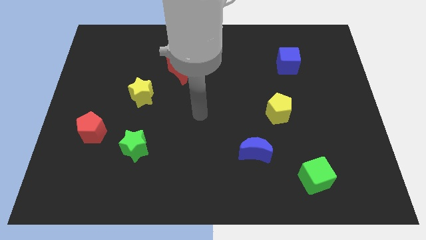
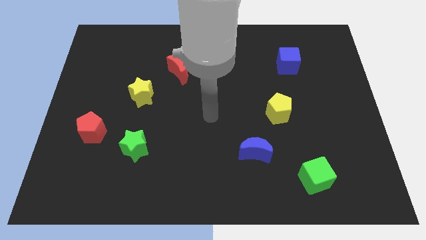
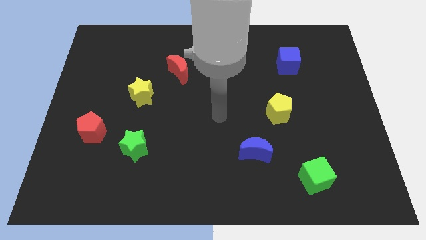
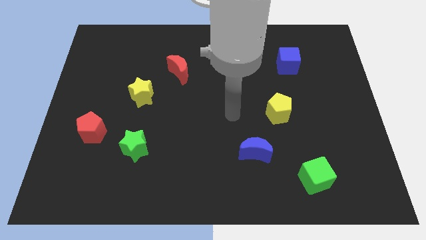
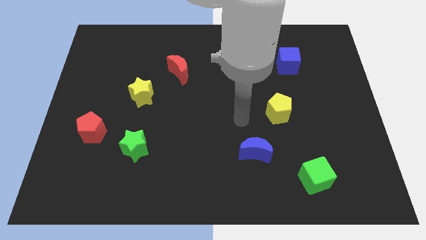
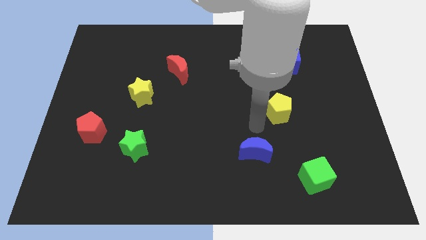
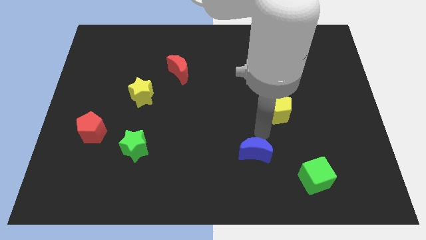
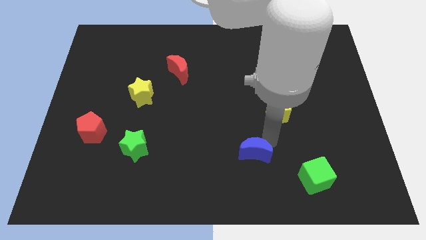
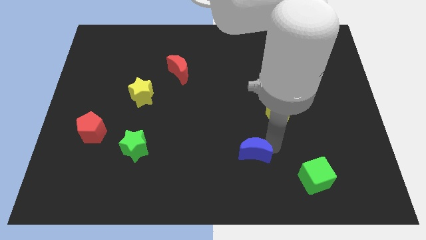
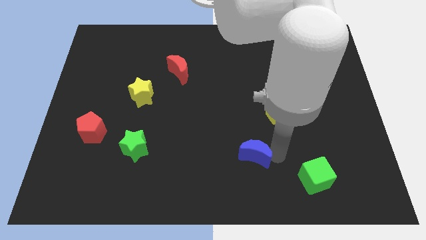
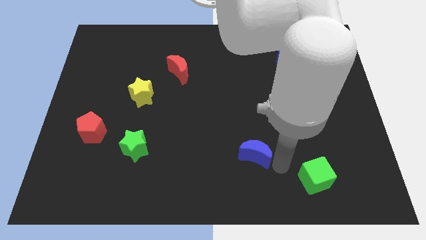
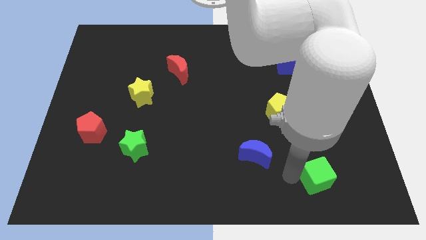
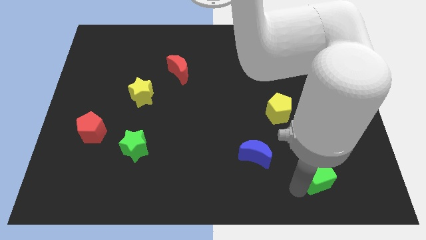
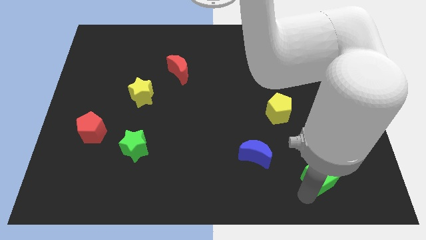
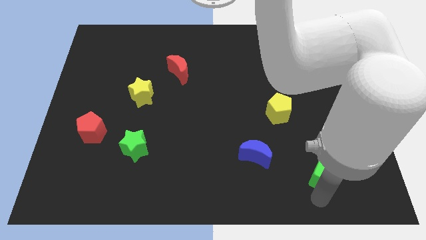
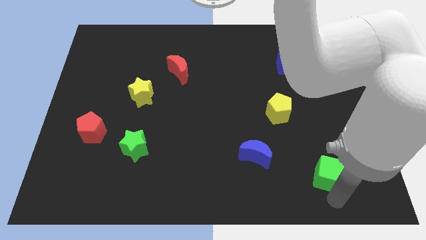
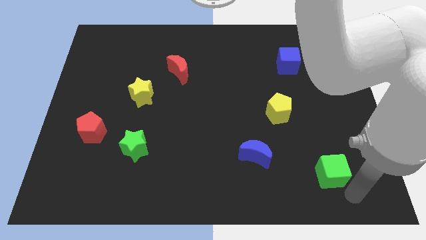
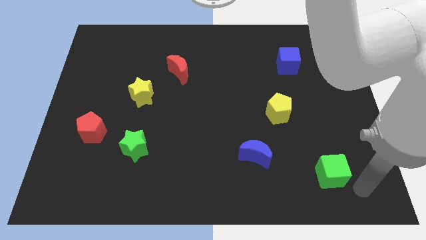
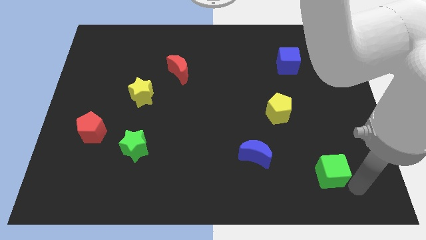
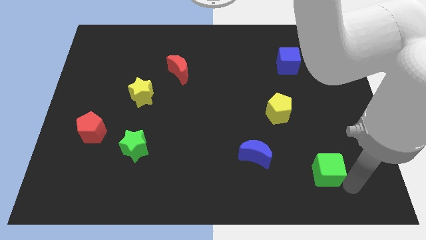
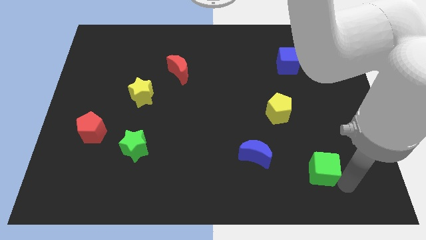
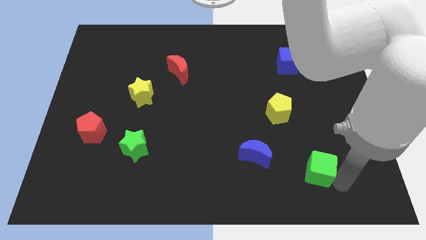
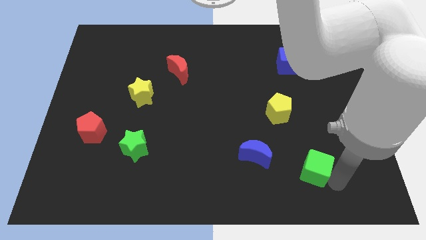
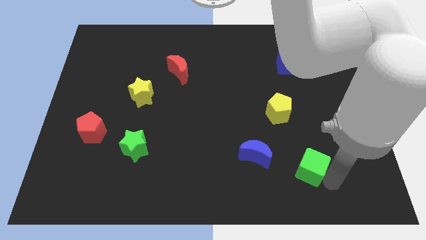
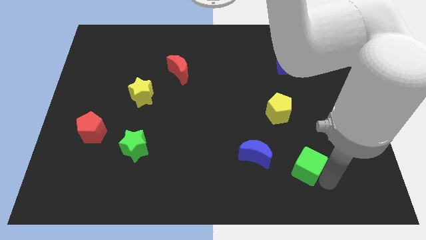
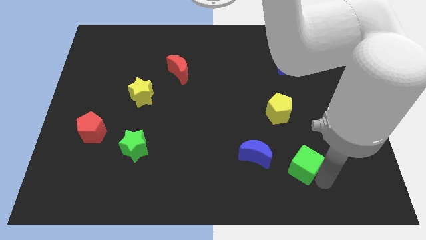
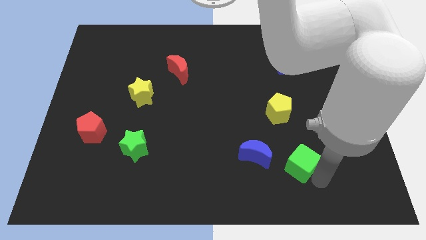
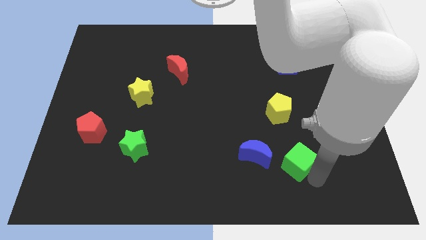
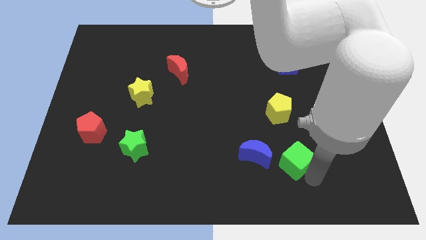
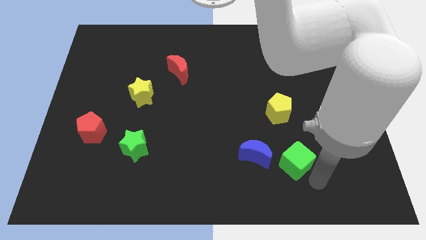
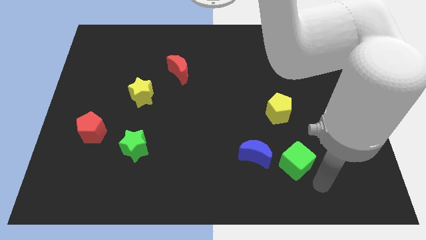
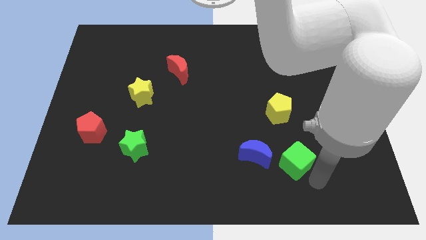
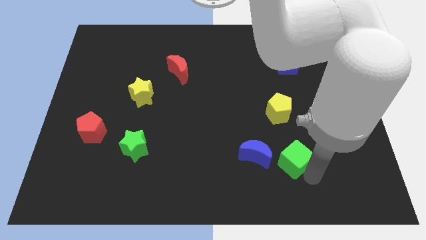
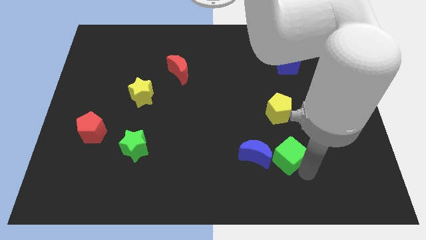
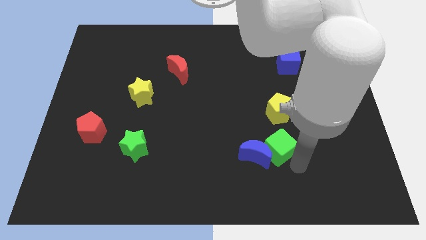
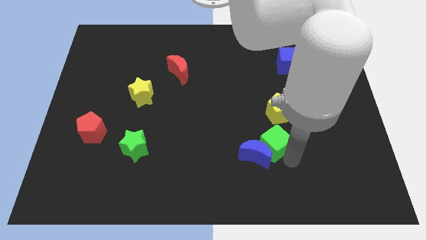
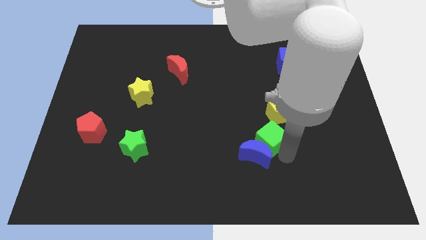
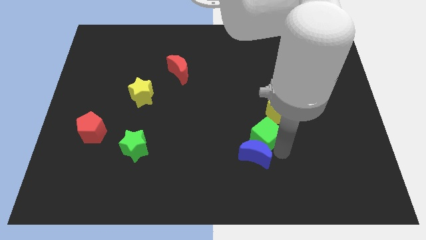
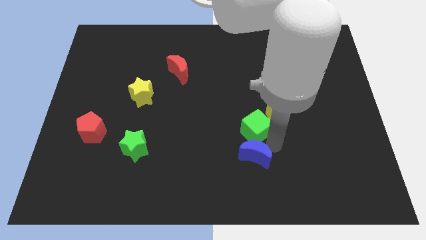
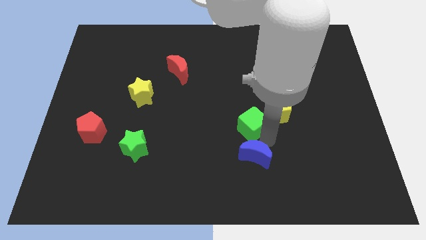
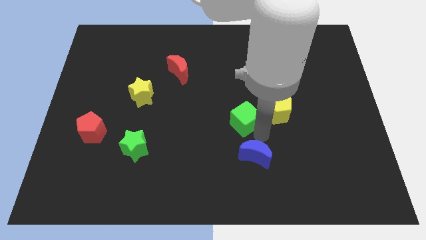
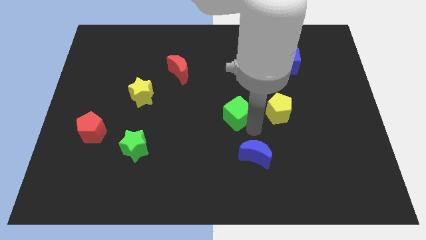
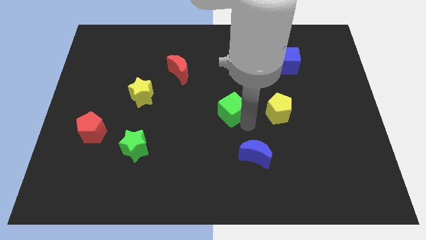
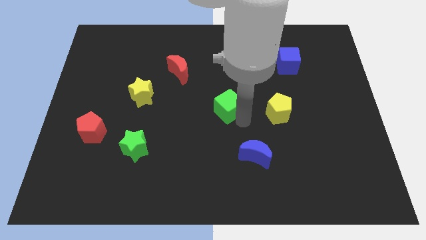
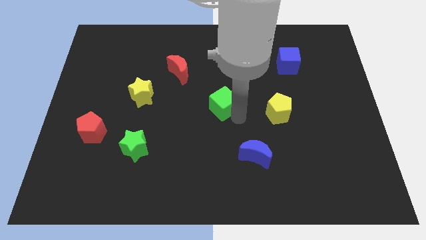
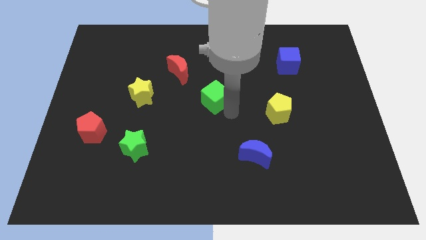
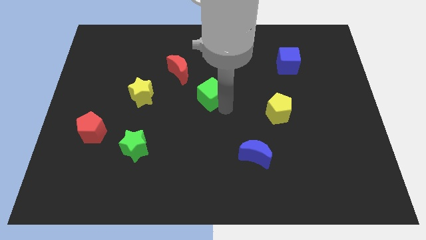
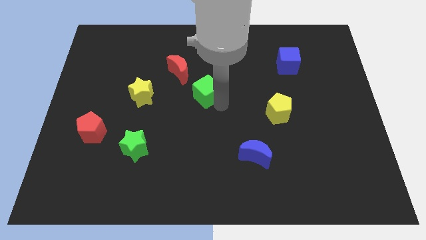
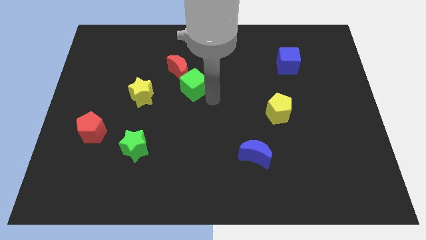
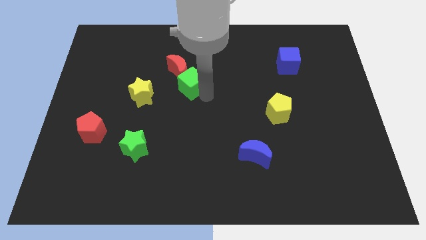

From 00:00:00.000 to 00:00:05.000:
push the green cube to the red moon

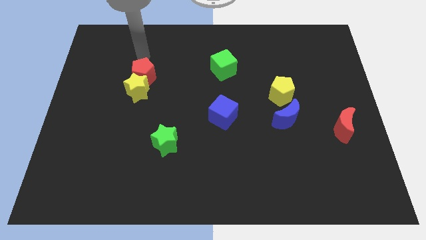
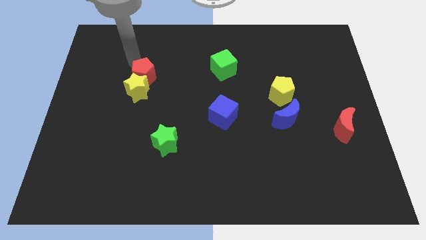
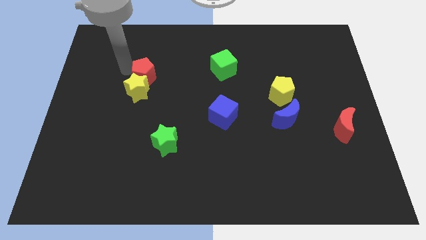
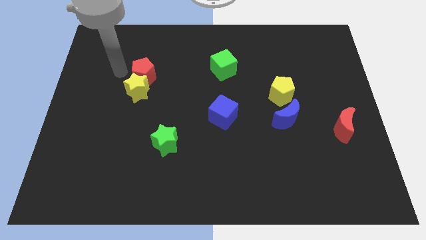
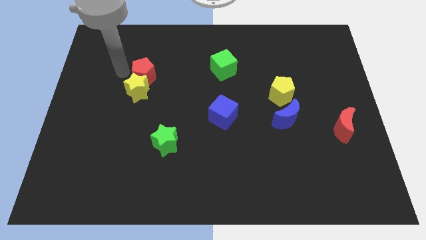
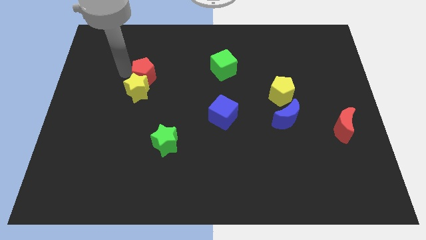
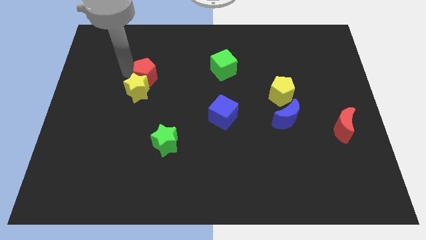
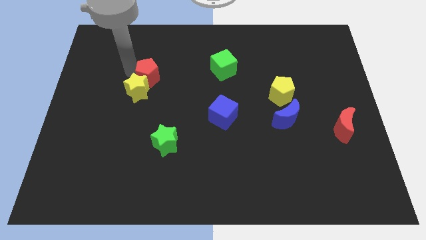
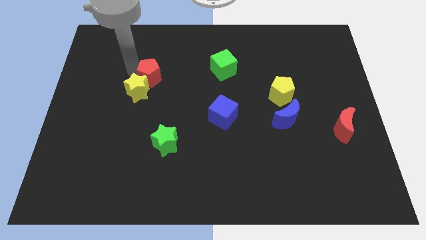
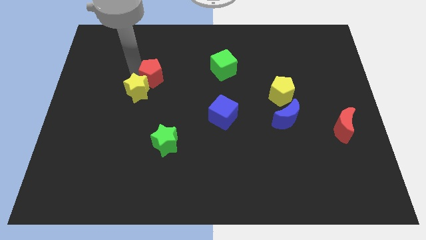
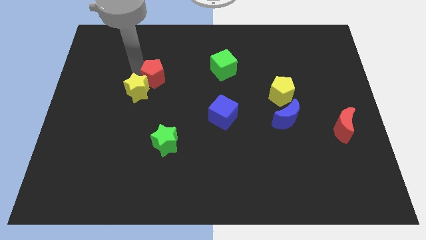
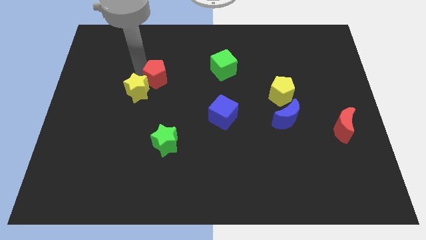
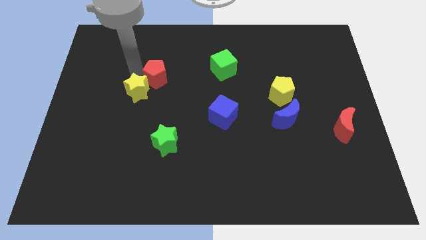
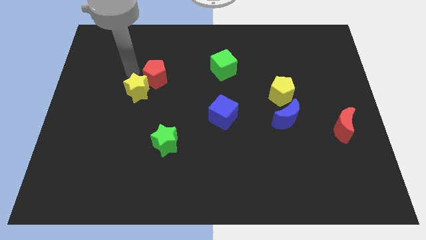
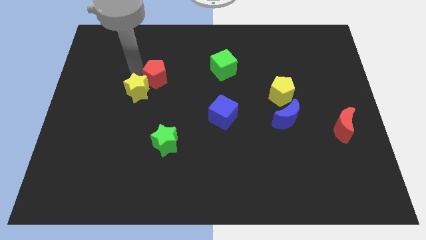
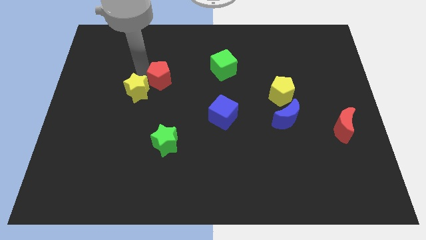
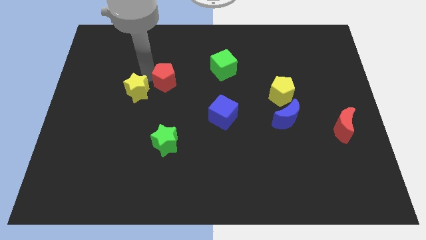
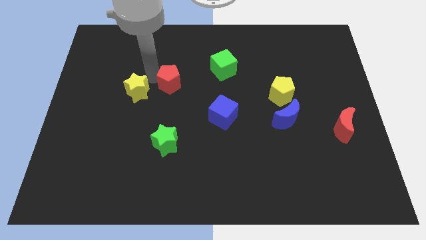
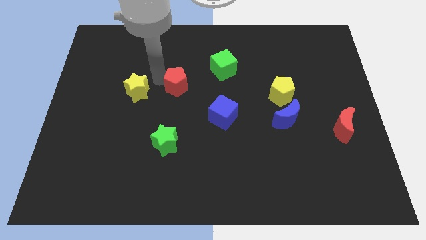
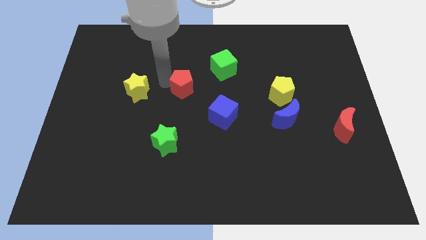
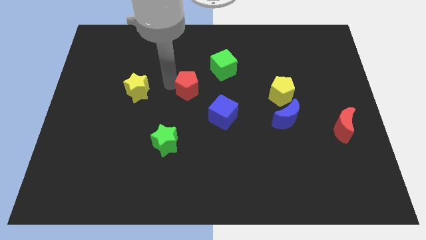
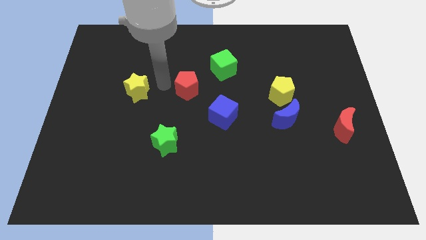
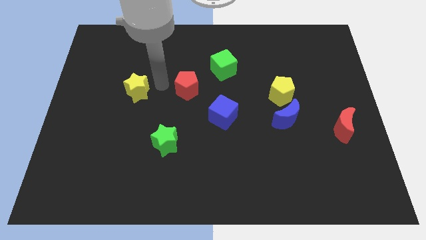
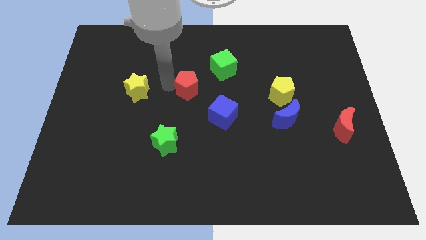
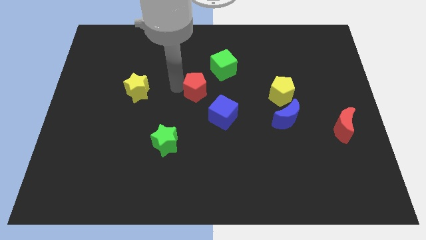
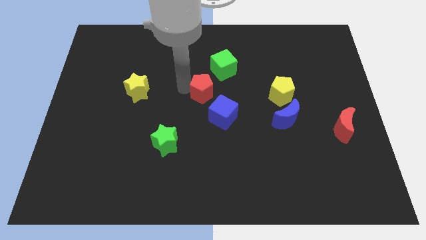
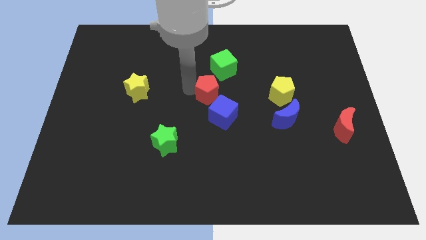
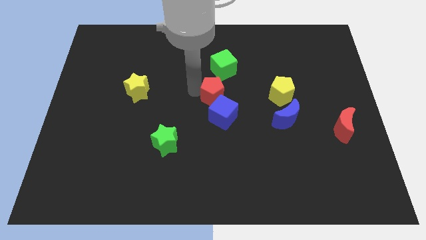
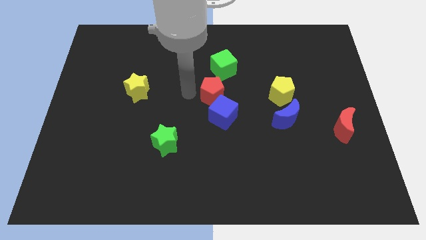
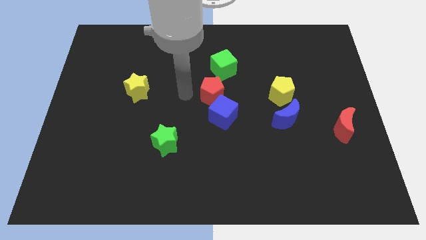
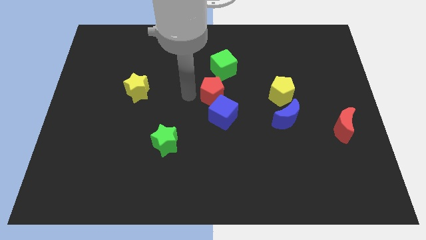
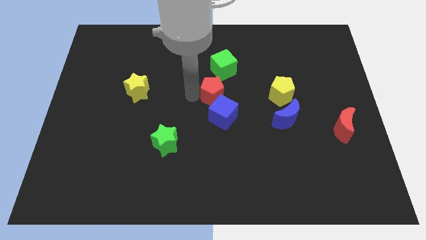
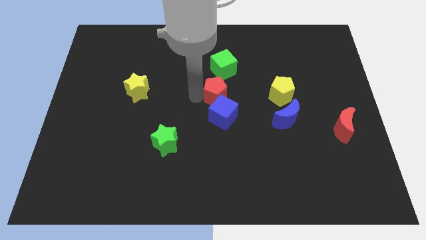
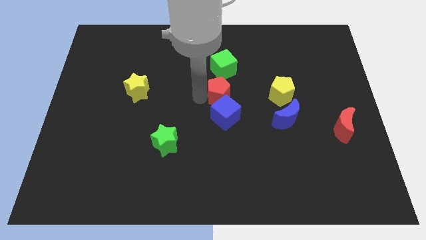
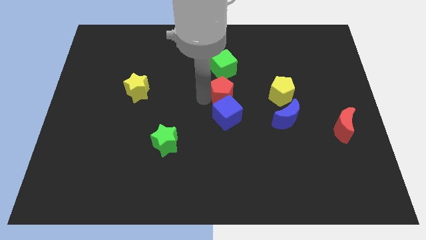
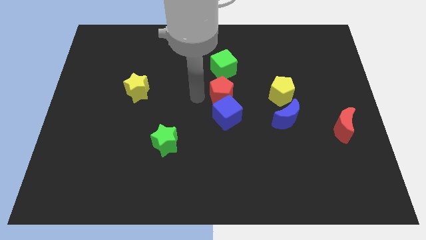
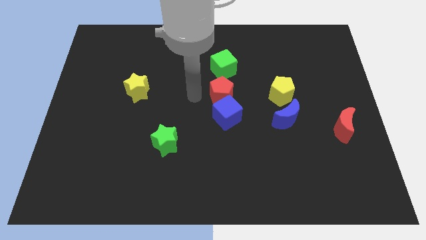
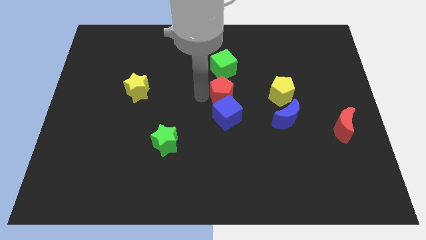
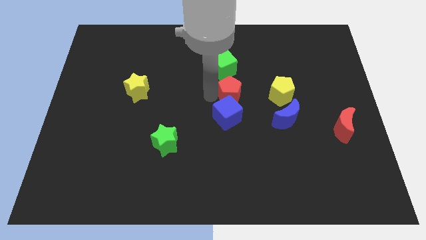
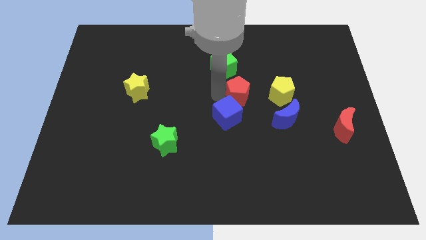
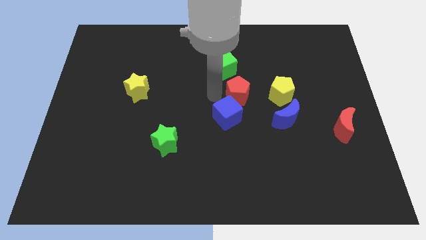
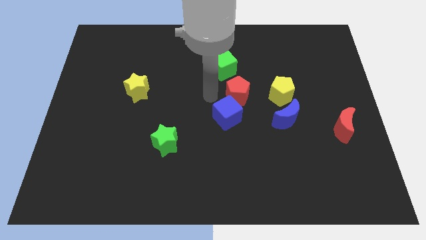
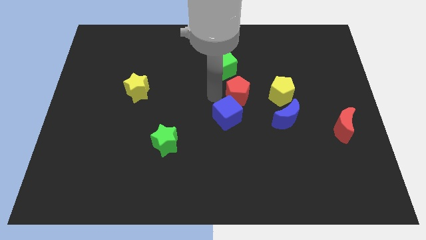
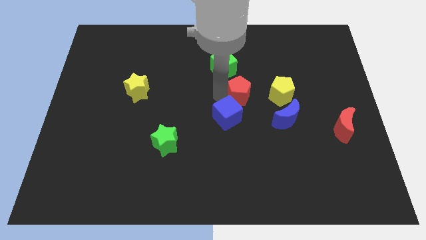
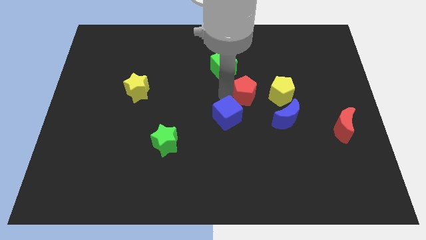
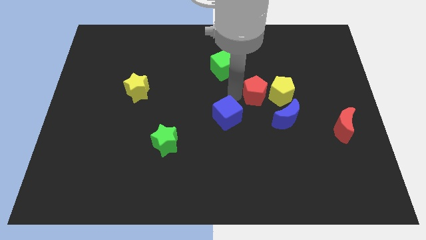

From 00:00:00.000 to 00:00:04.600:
push the red pentagon to the yellow pentagon
